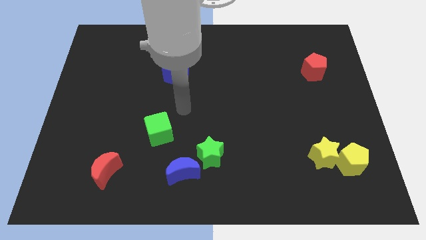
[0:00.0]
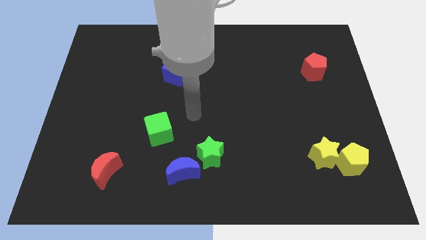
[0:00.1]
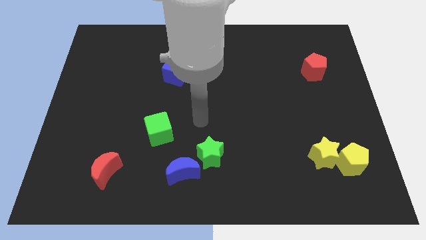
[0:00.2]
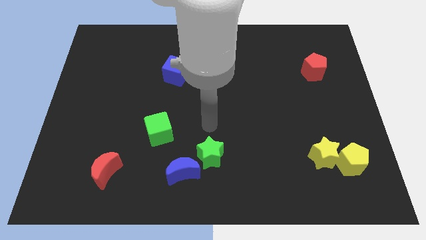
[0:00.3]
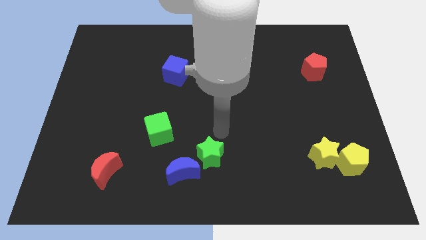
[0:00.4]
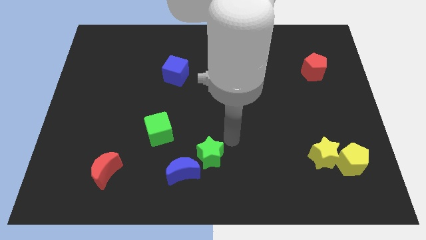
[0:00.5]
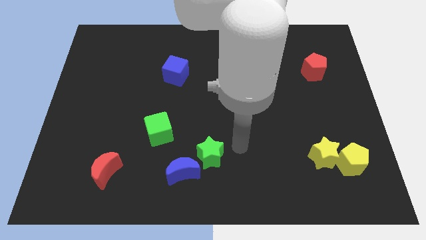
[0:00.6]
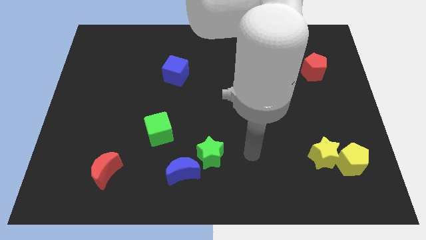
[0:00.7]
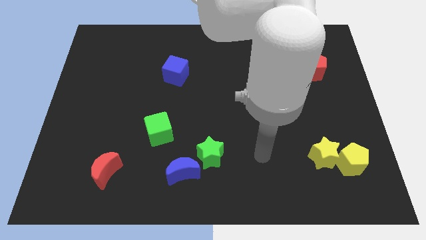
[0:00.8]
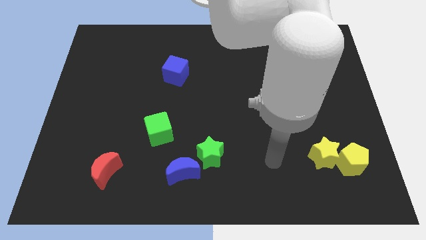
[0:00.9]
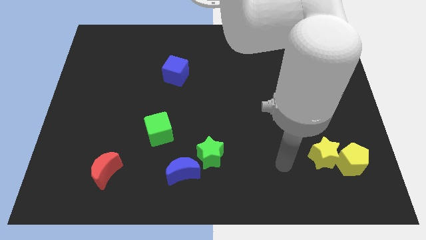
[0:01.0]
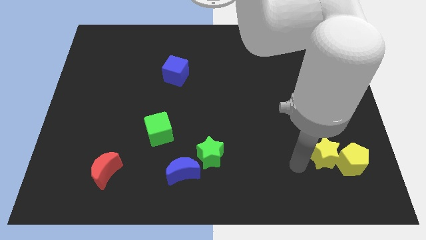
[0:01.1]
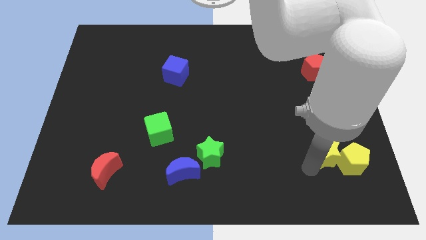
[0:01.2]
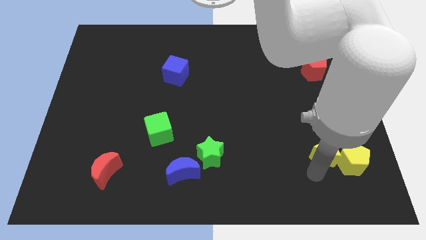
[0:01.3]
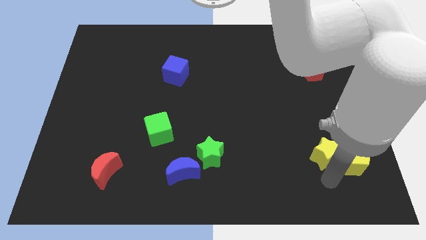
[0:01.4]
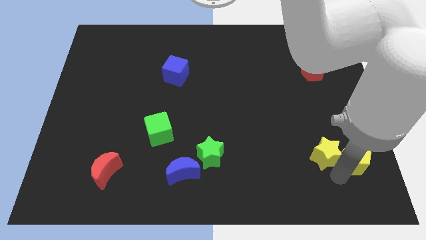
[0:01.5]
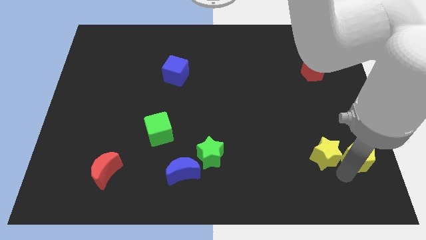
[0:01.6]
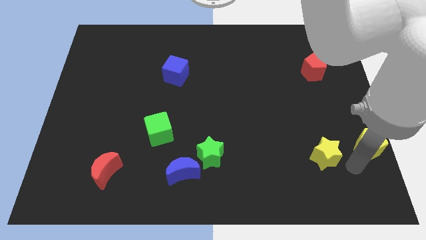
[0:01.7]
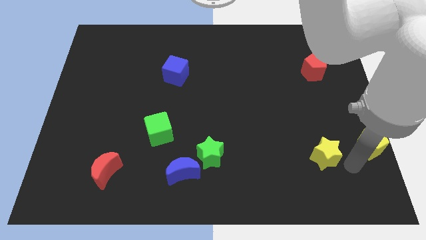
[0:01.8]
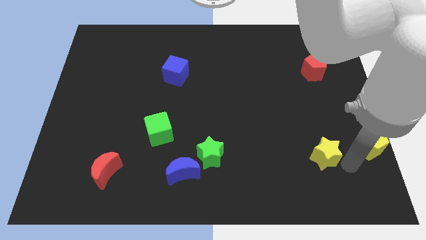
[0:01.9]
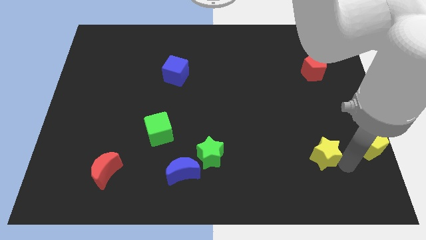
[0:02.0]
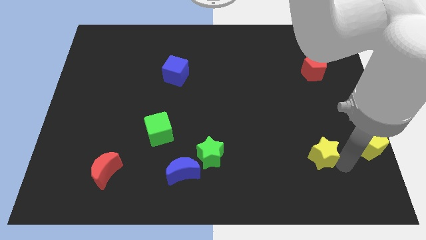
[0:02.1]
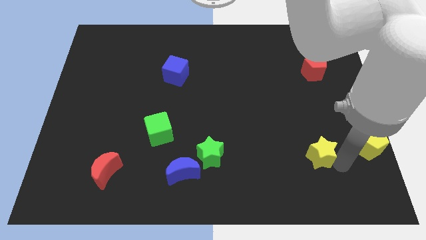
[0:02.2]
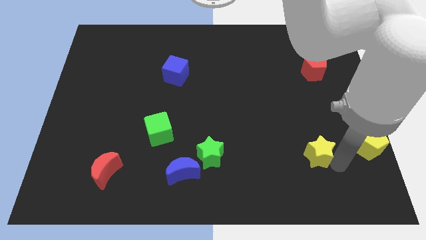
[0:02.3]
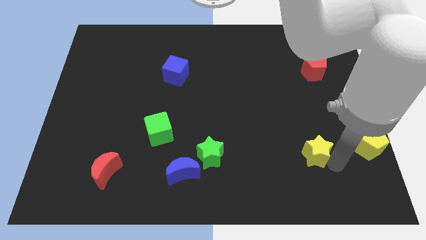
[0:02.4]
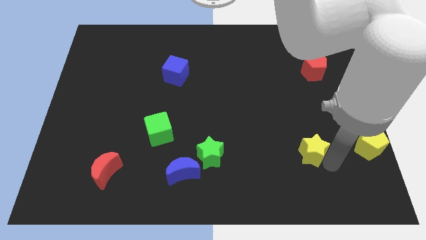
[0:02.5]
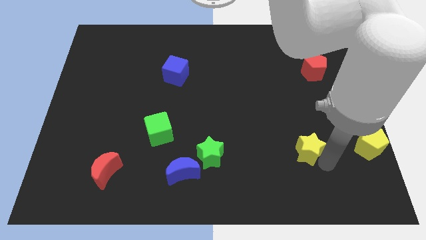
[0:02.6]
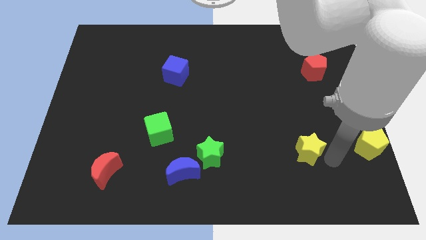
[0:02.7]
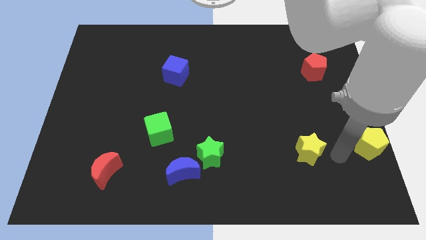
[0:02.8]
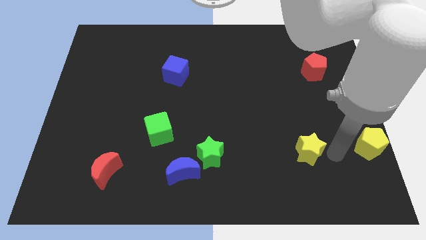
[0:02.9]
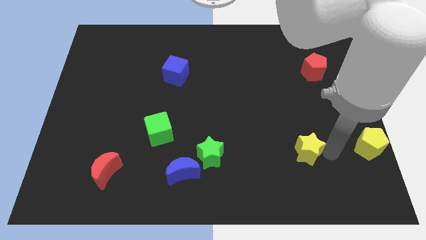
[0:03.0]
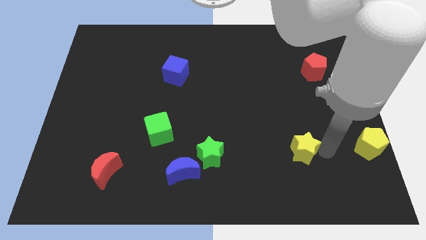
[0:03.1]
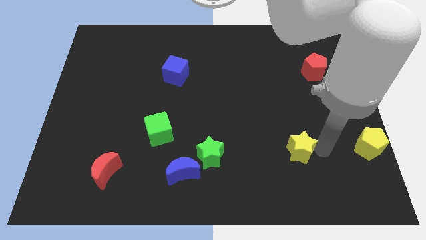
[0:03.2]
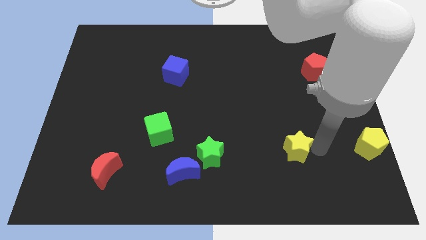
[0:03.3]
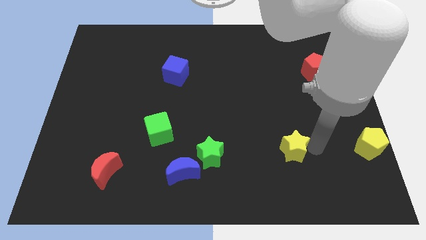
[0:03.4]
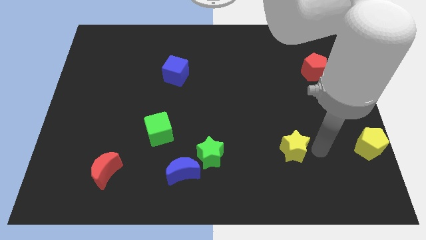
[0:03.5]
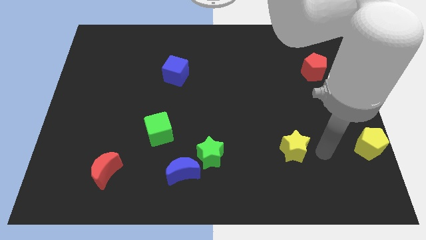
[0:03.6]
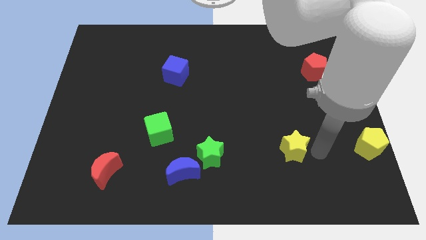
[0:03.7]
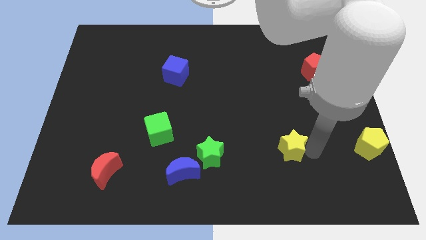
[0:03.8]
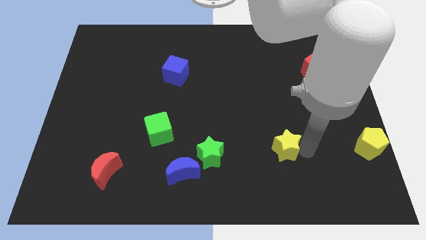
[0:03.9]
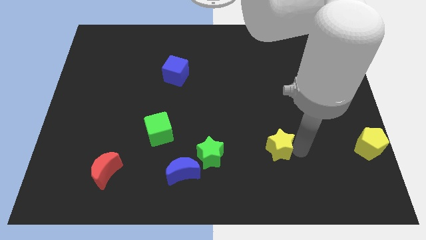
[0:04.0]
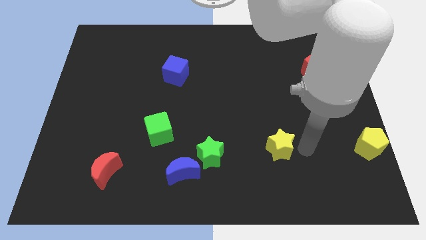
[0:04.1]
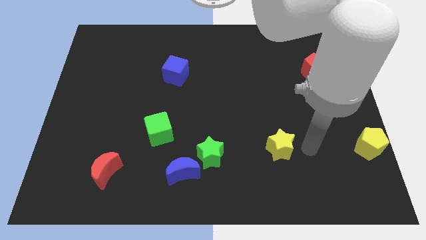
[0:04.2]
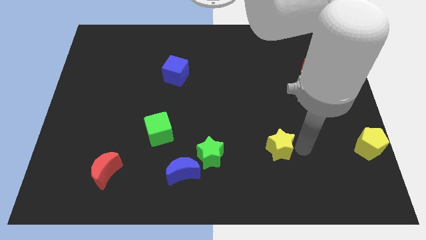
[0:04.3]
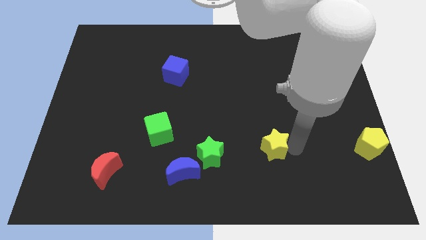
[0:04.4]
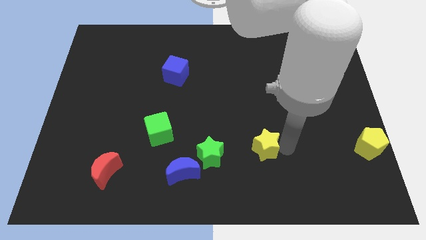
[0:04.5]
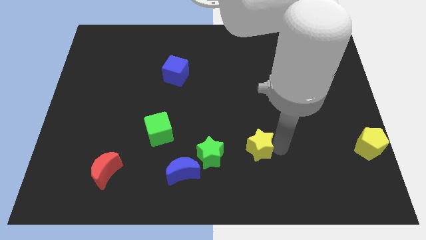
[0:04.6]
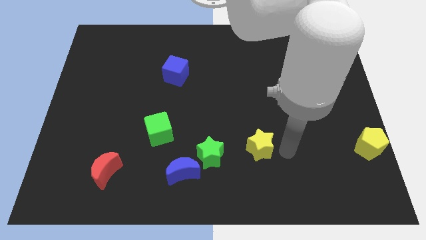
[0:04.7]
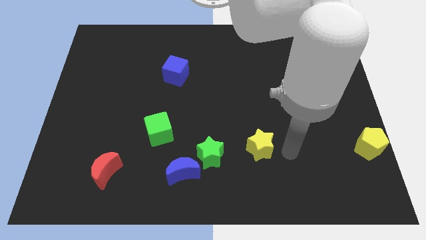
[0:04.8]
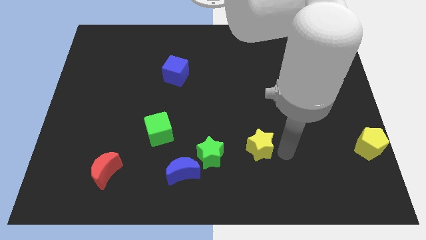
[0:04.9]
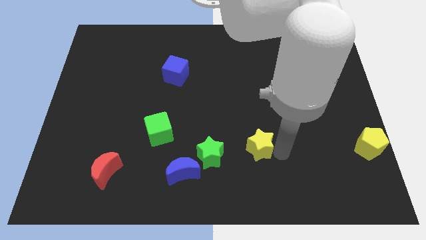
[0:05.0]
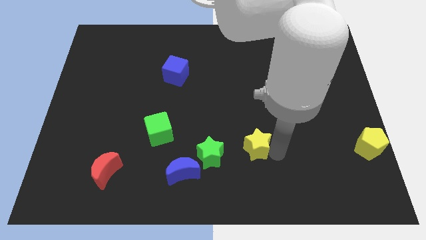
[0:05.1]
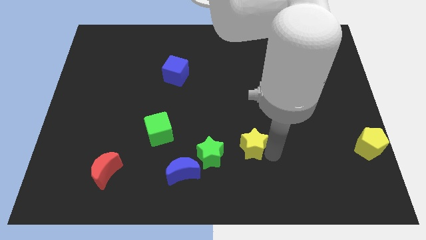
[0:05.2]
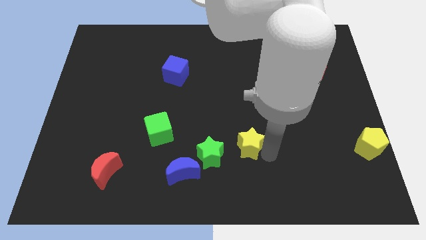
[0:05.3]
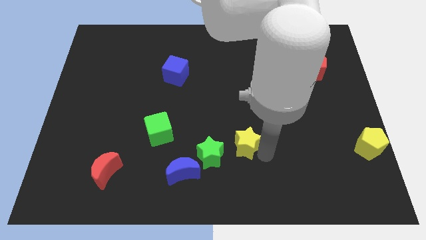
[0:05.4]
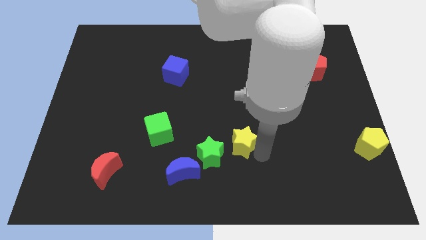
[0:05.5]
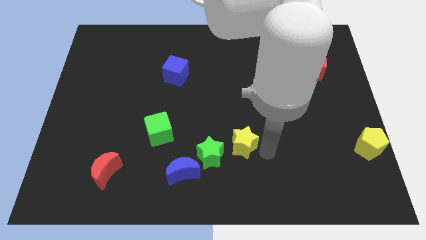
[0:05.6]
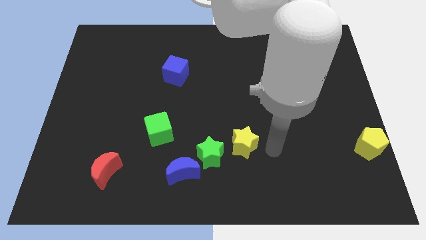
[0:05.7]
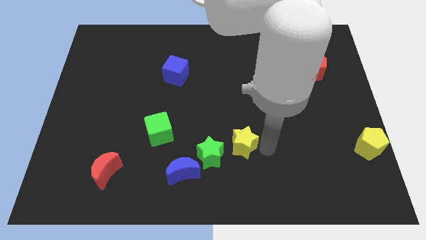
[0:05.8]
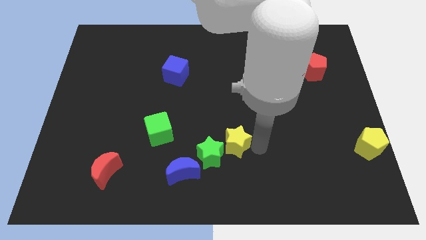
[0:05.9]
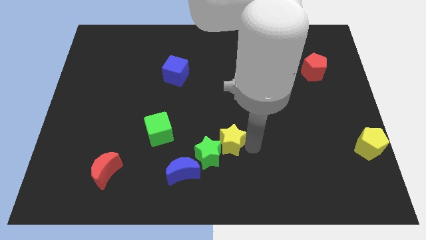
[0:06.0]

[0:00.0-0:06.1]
push the yellow star to the top right side of the blue moon
